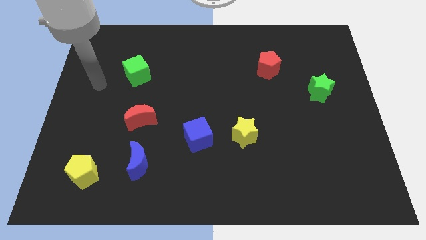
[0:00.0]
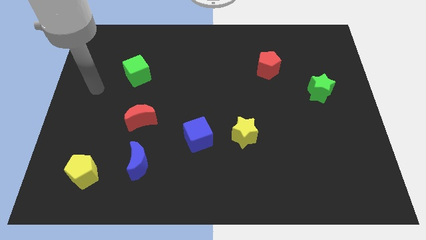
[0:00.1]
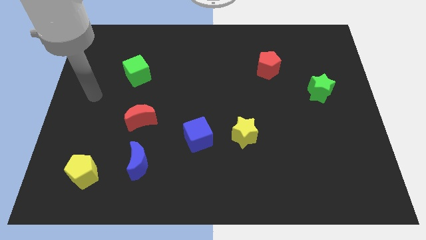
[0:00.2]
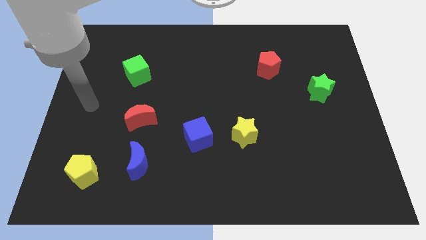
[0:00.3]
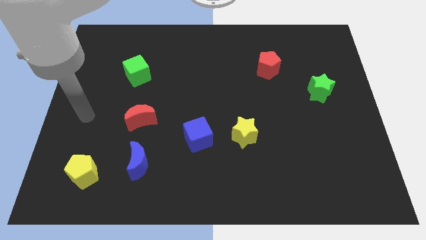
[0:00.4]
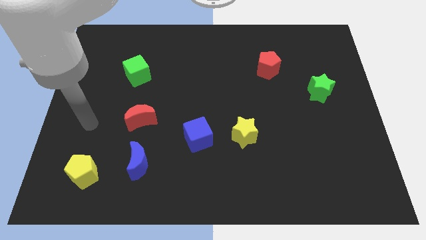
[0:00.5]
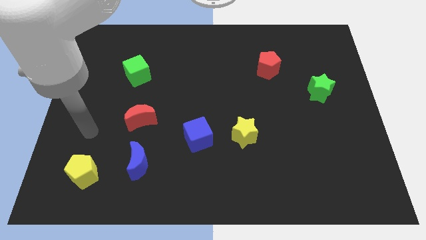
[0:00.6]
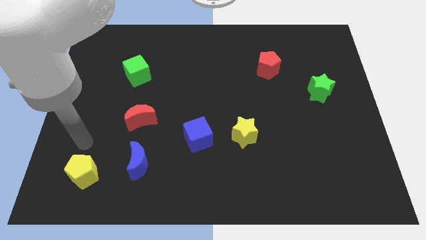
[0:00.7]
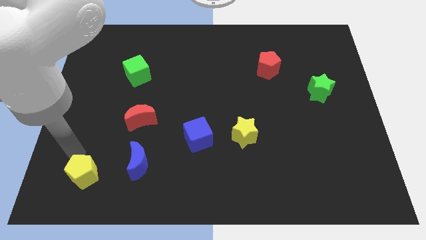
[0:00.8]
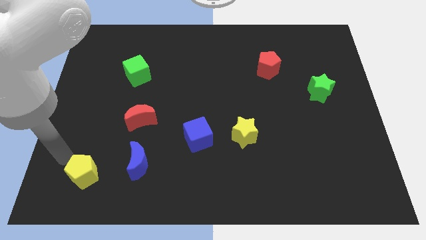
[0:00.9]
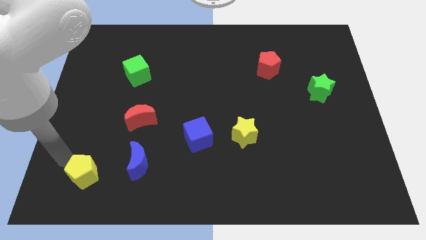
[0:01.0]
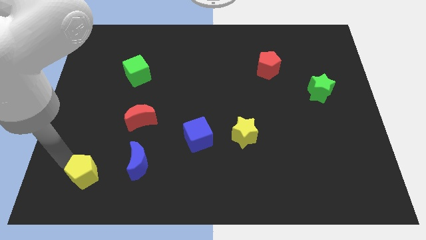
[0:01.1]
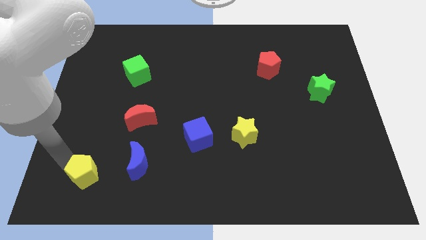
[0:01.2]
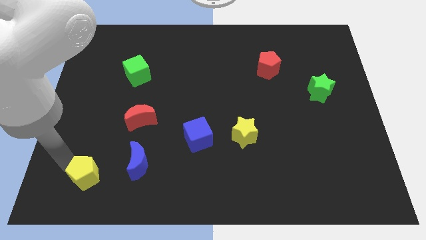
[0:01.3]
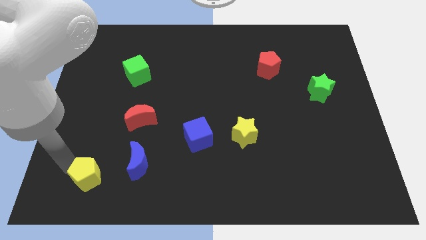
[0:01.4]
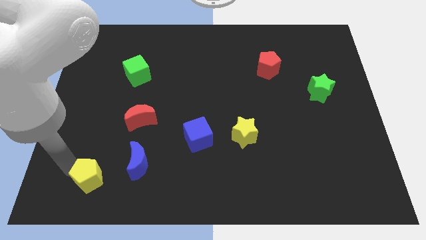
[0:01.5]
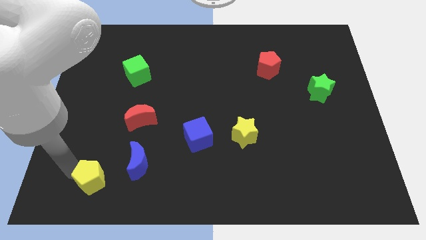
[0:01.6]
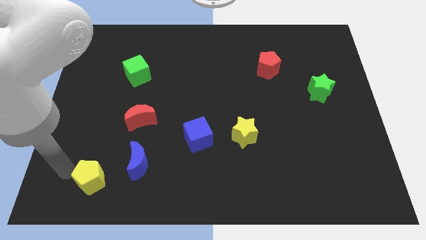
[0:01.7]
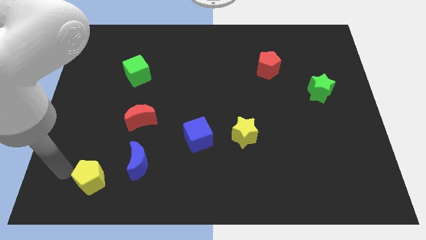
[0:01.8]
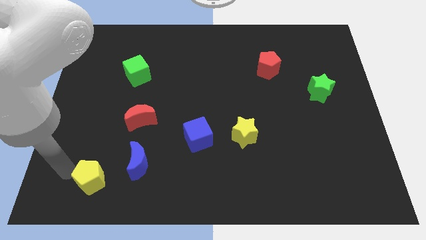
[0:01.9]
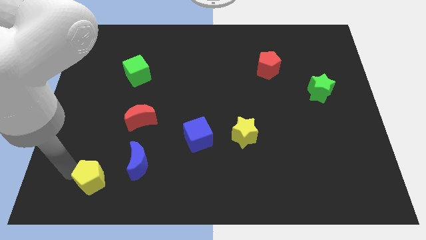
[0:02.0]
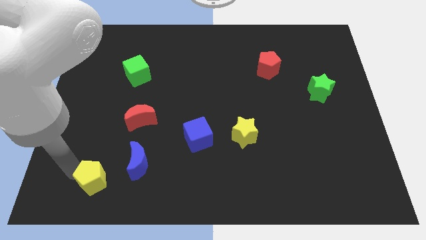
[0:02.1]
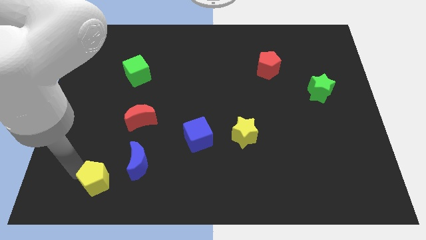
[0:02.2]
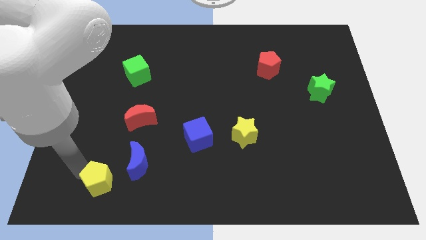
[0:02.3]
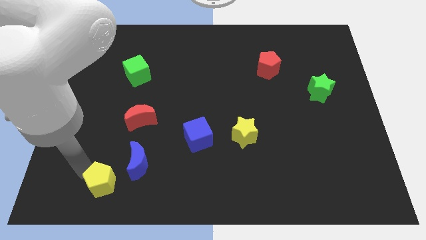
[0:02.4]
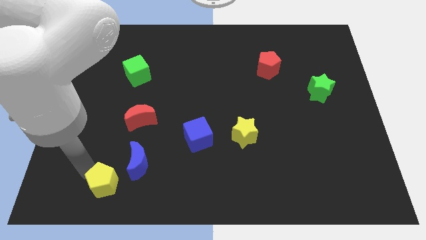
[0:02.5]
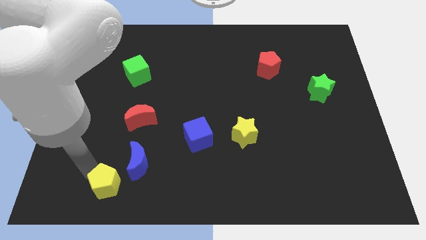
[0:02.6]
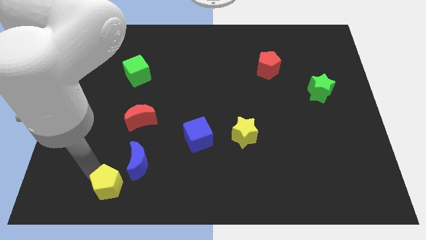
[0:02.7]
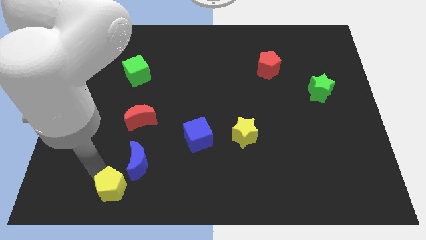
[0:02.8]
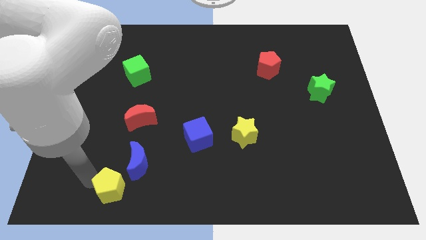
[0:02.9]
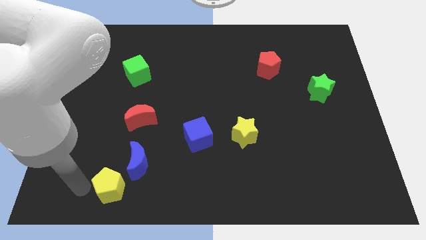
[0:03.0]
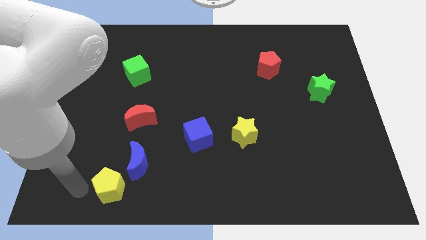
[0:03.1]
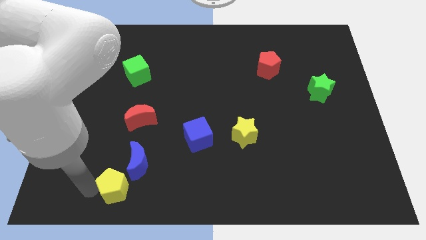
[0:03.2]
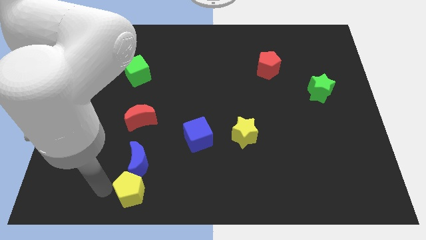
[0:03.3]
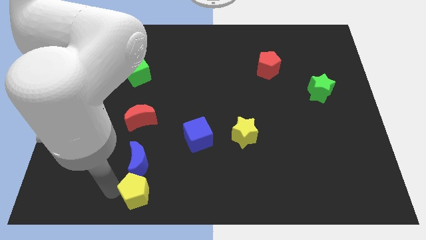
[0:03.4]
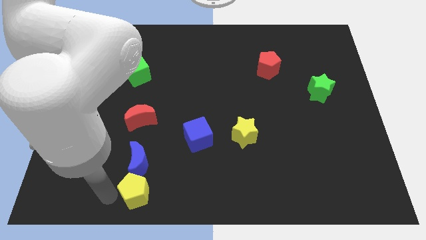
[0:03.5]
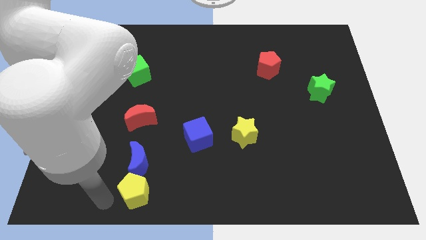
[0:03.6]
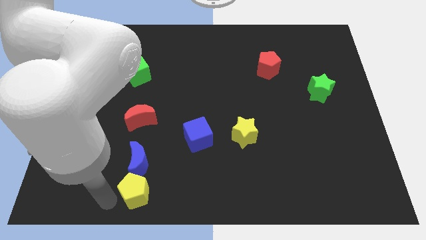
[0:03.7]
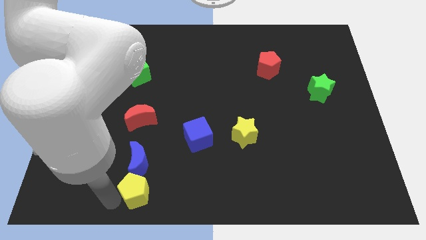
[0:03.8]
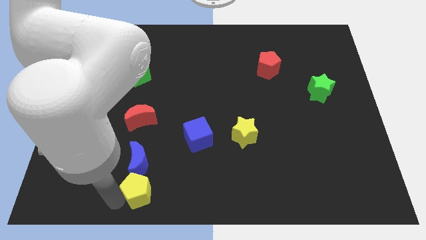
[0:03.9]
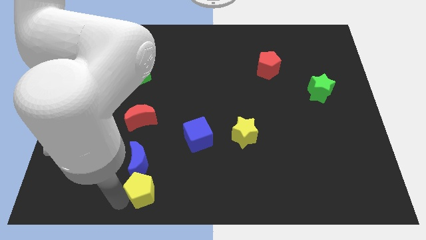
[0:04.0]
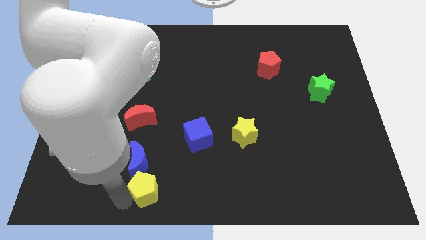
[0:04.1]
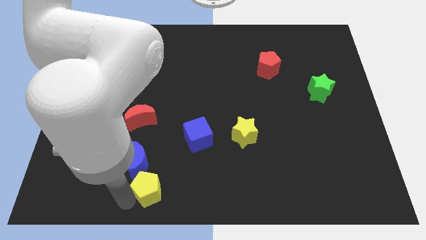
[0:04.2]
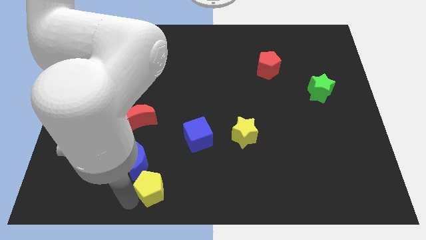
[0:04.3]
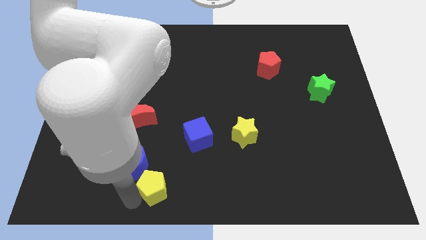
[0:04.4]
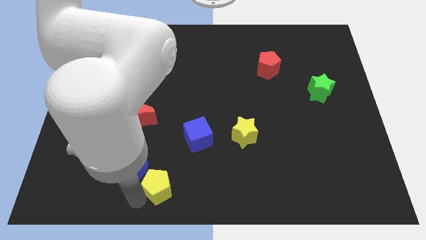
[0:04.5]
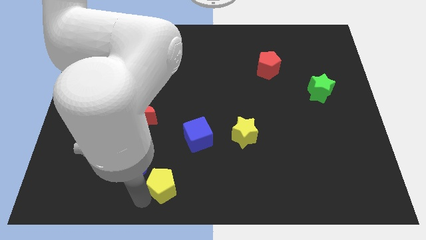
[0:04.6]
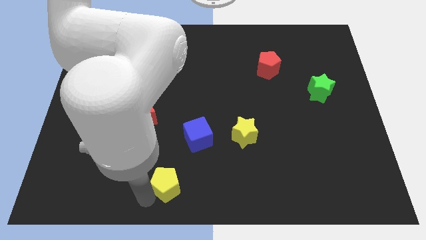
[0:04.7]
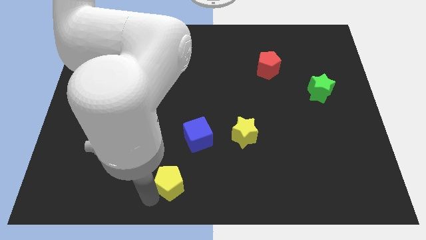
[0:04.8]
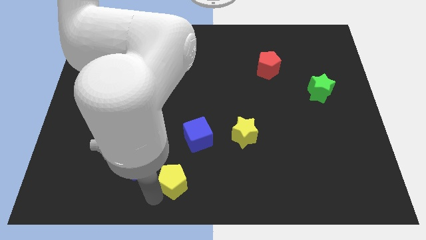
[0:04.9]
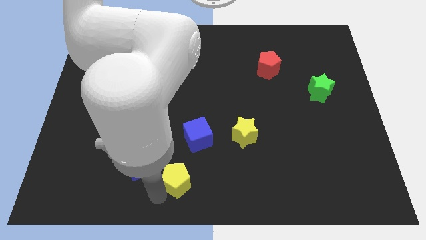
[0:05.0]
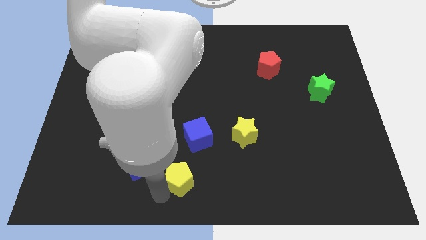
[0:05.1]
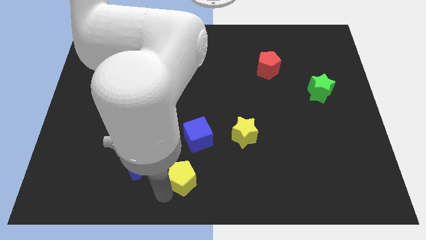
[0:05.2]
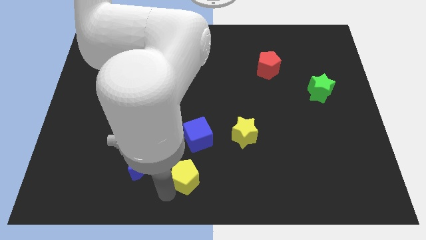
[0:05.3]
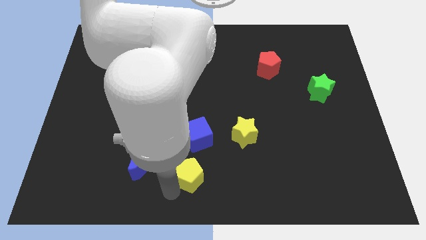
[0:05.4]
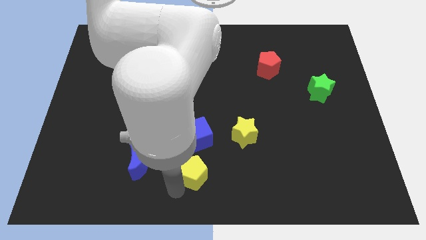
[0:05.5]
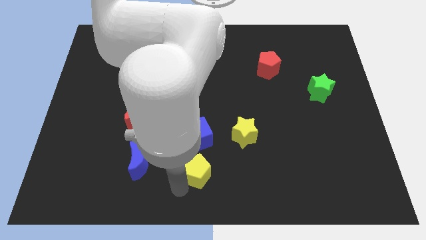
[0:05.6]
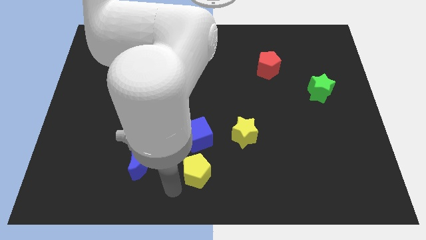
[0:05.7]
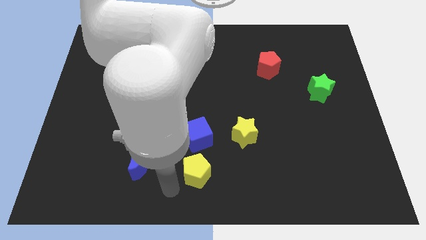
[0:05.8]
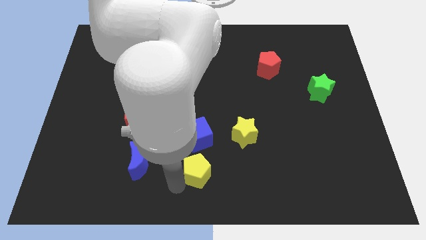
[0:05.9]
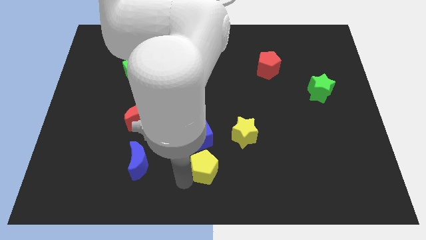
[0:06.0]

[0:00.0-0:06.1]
move the yellow pentagon to the bottom right of the blue cube
